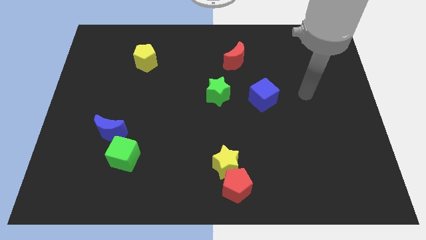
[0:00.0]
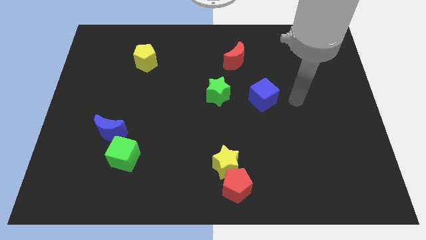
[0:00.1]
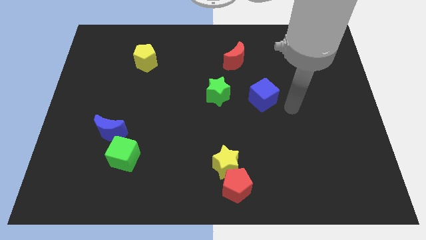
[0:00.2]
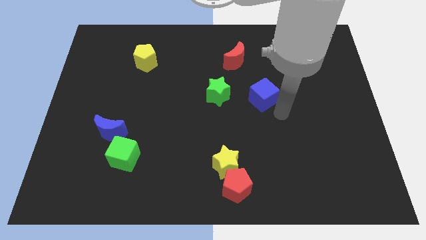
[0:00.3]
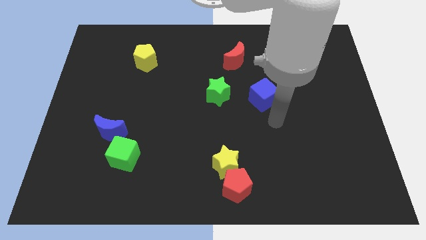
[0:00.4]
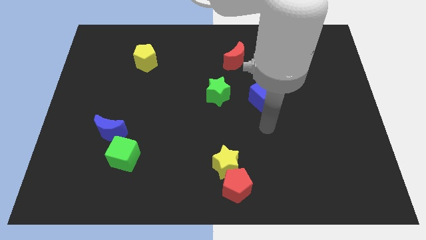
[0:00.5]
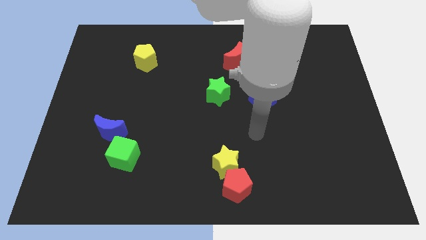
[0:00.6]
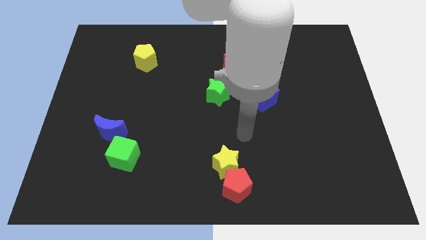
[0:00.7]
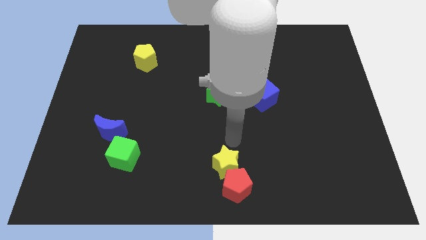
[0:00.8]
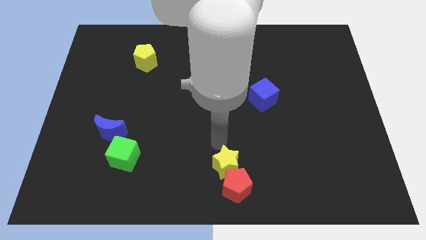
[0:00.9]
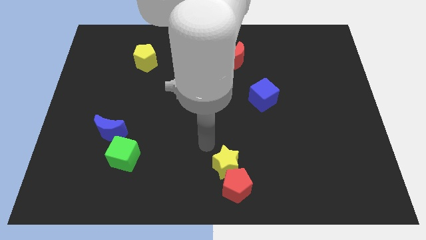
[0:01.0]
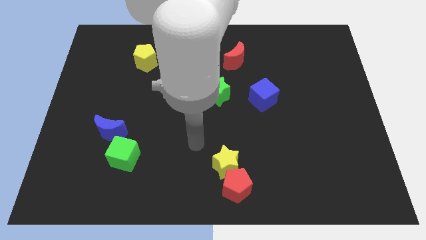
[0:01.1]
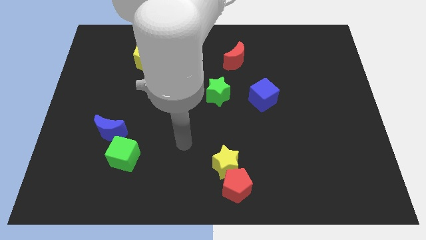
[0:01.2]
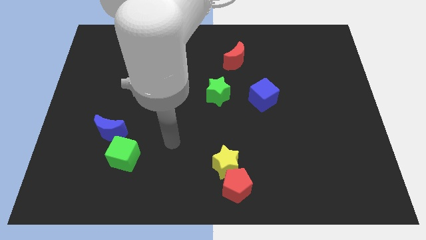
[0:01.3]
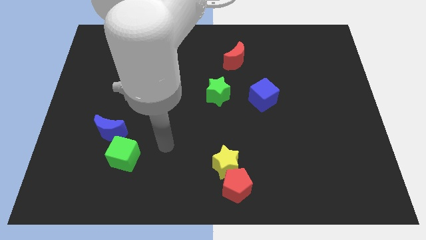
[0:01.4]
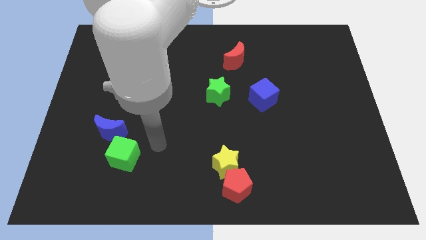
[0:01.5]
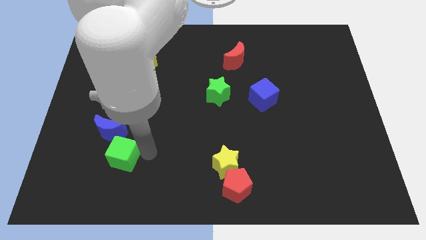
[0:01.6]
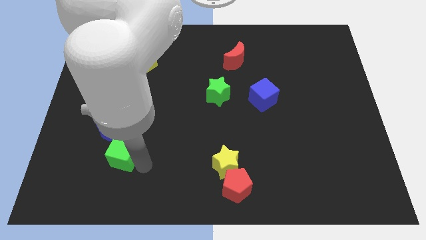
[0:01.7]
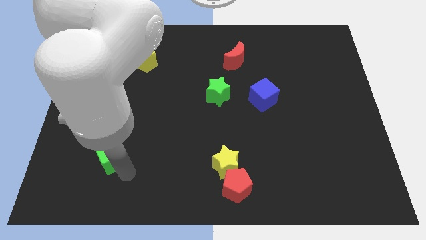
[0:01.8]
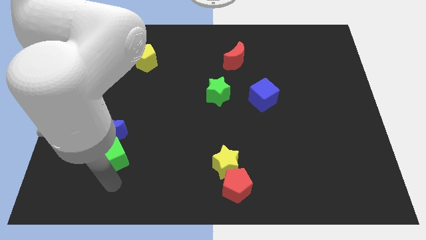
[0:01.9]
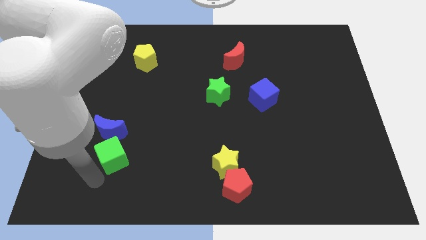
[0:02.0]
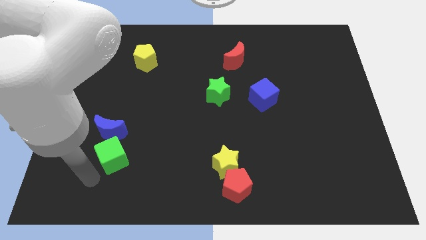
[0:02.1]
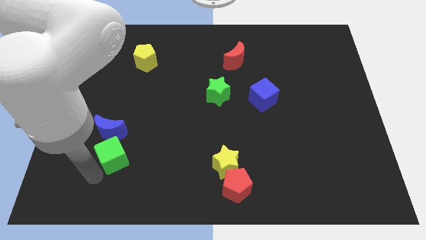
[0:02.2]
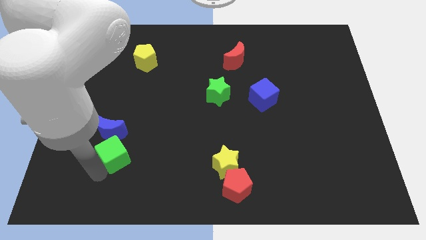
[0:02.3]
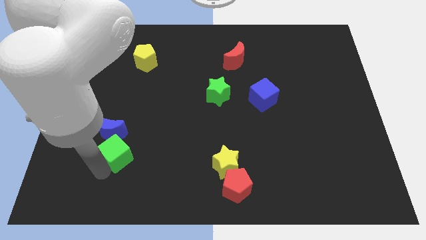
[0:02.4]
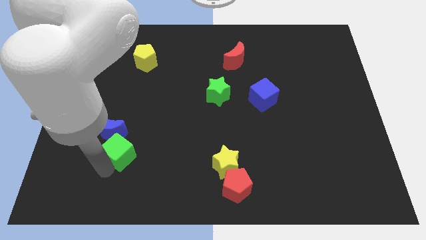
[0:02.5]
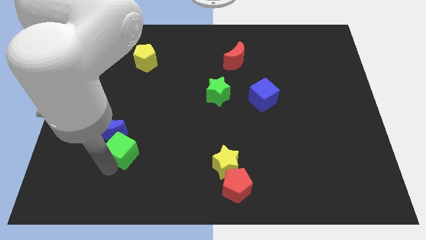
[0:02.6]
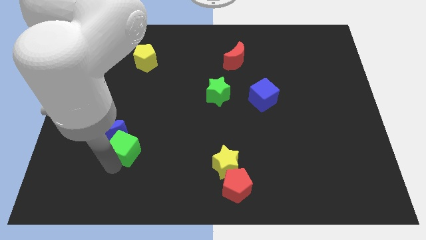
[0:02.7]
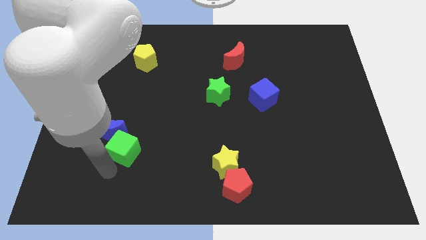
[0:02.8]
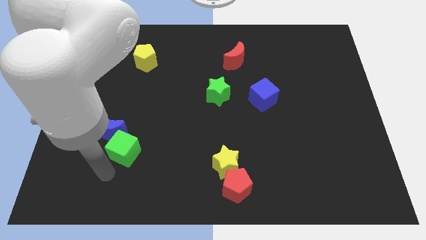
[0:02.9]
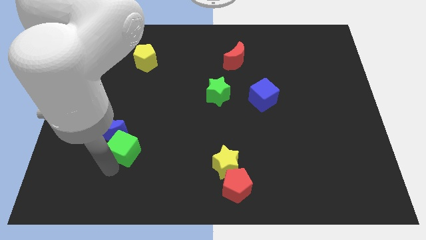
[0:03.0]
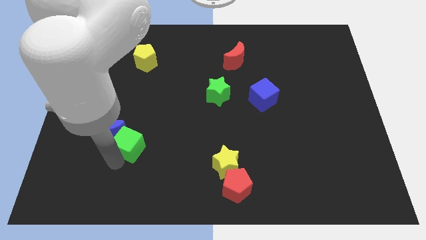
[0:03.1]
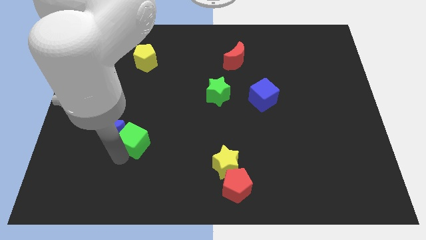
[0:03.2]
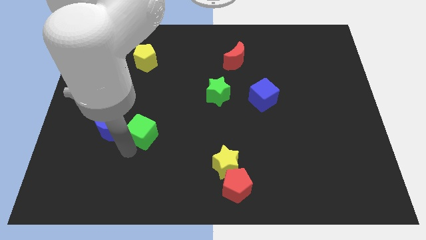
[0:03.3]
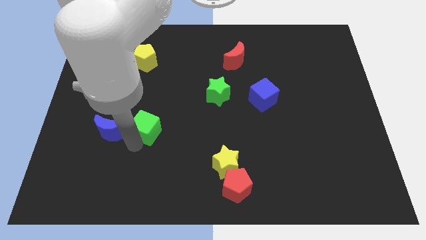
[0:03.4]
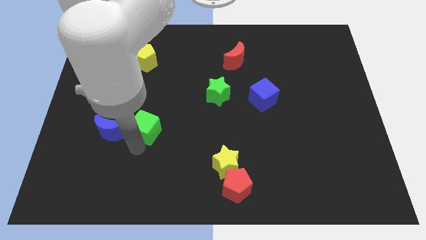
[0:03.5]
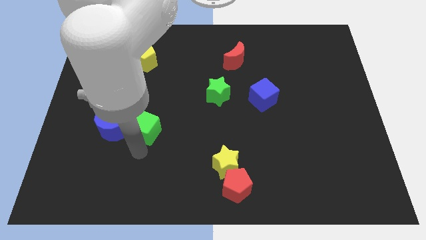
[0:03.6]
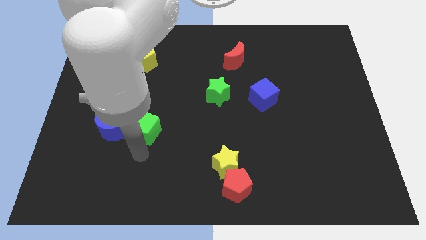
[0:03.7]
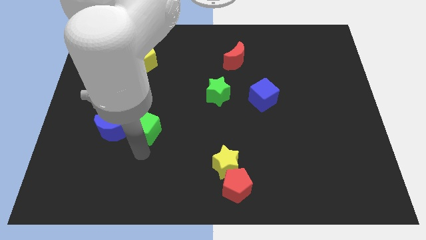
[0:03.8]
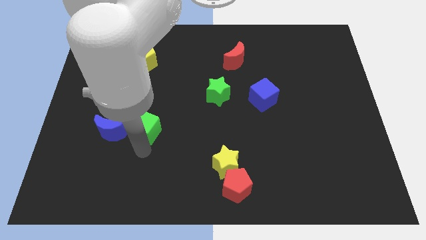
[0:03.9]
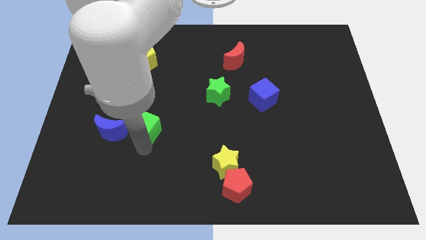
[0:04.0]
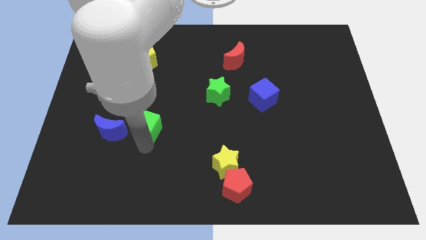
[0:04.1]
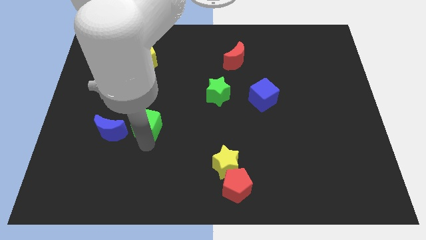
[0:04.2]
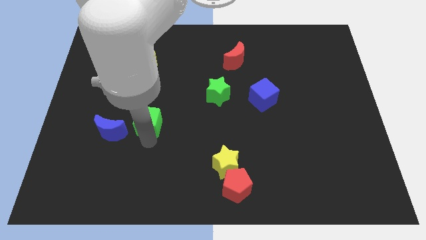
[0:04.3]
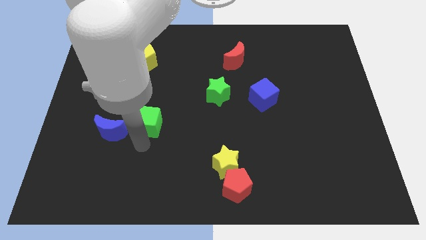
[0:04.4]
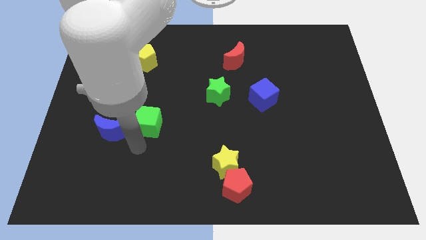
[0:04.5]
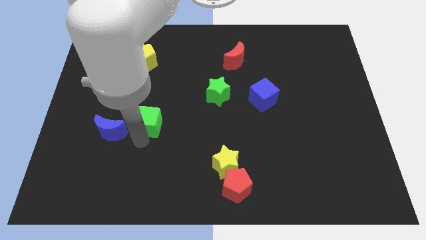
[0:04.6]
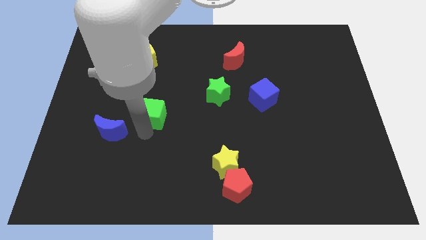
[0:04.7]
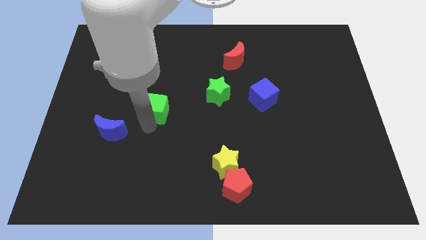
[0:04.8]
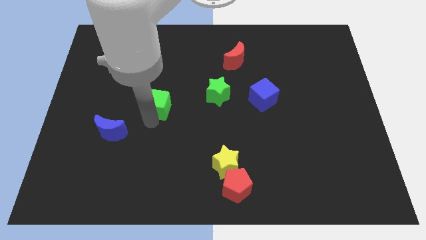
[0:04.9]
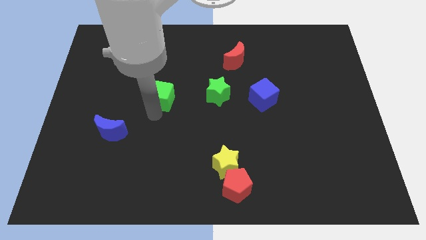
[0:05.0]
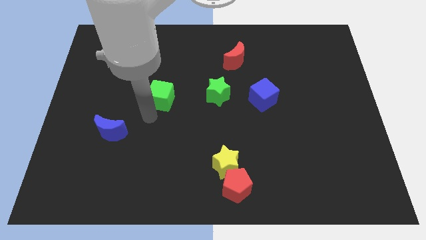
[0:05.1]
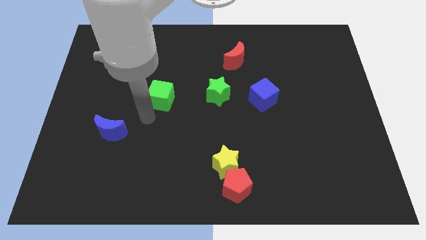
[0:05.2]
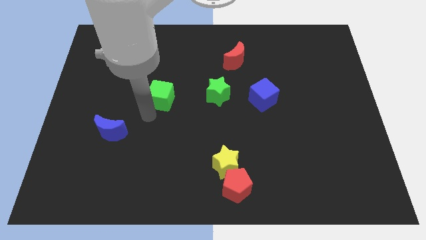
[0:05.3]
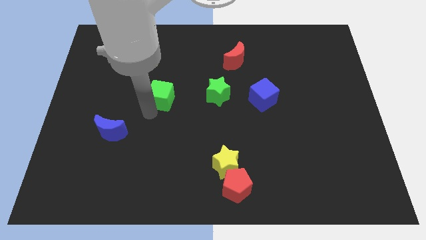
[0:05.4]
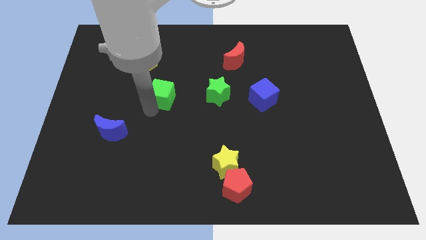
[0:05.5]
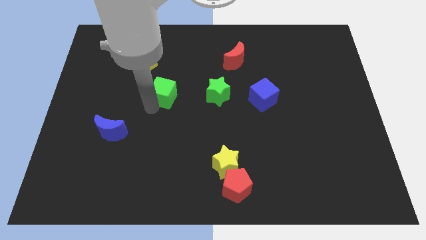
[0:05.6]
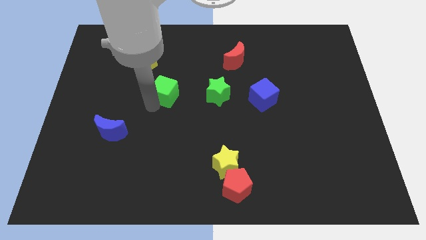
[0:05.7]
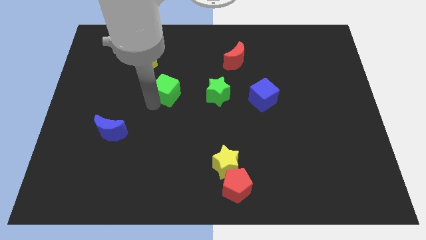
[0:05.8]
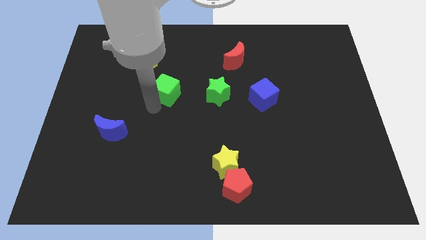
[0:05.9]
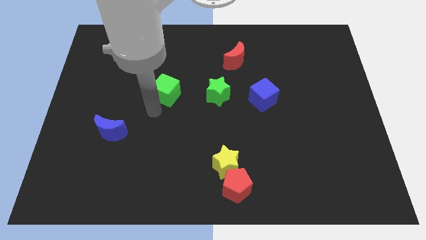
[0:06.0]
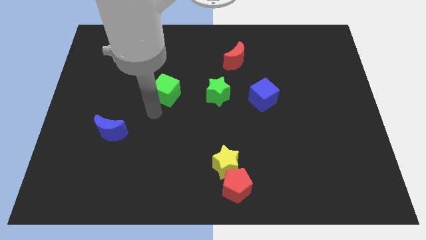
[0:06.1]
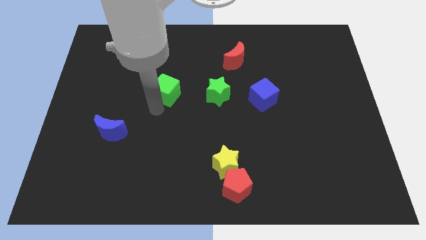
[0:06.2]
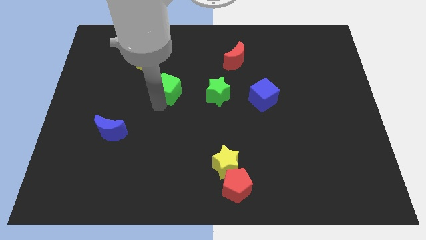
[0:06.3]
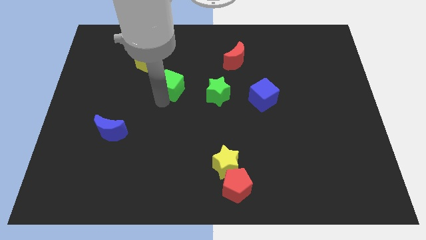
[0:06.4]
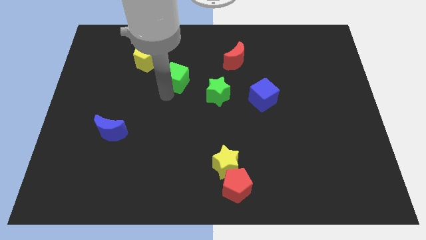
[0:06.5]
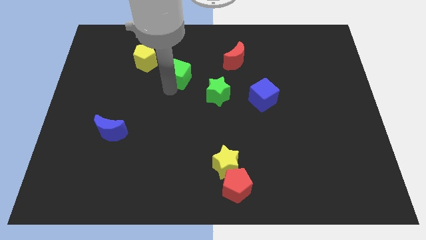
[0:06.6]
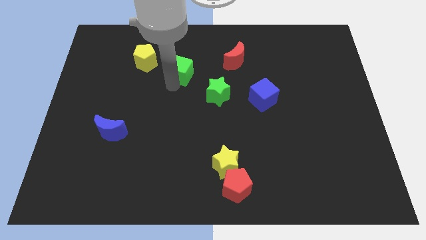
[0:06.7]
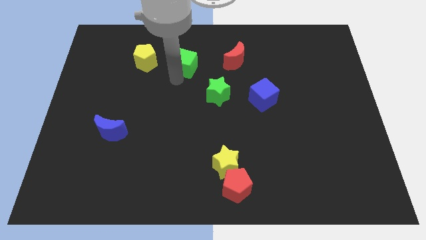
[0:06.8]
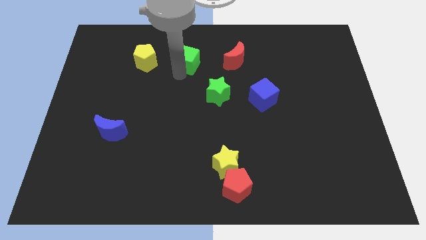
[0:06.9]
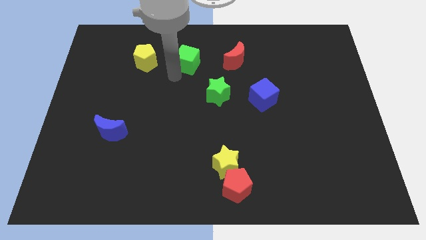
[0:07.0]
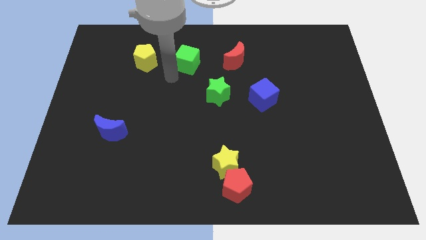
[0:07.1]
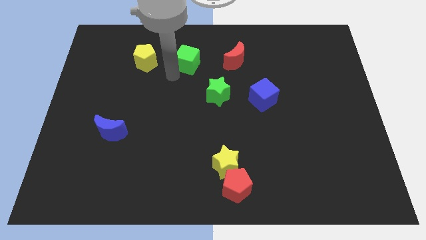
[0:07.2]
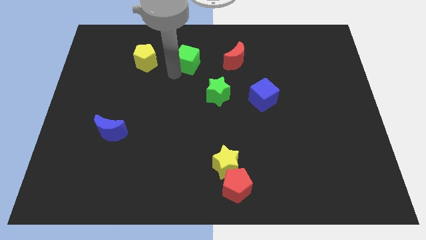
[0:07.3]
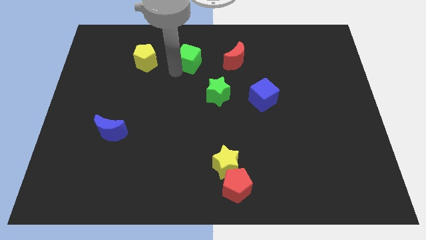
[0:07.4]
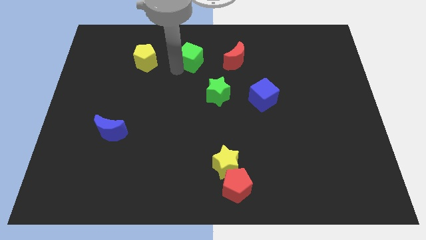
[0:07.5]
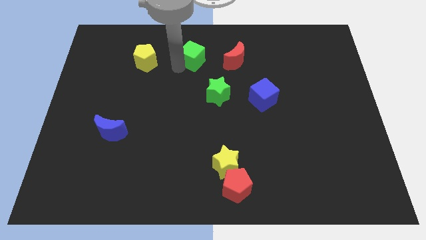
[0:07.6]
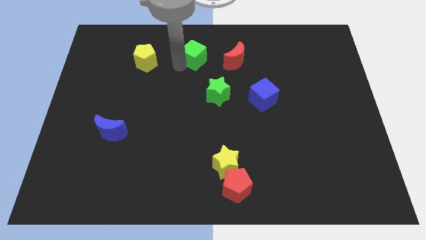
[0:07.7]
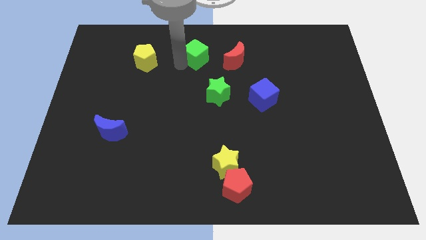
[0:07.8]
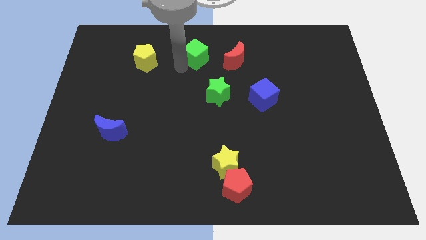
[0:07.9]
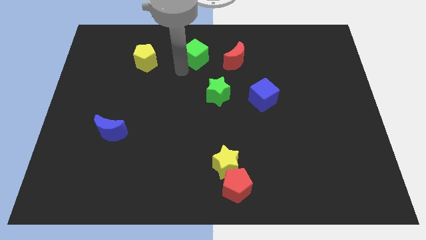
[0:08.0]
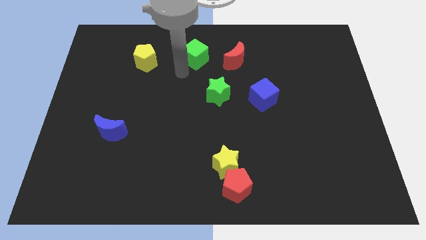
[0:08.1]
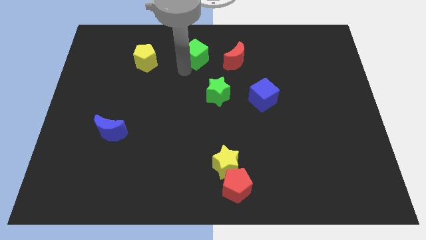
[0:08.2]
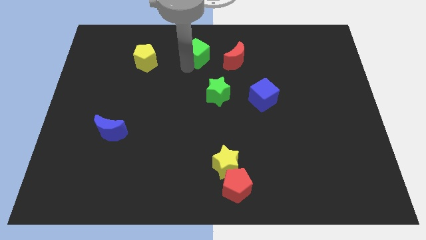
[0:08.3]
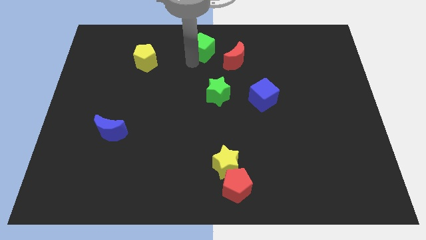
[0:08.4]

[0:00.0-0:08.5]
move the green cube to the top
